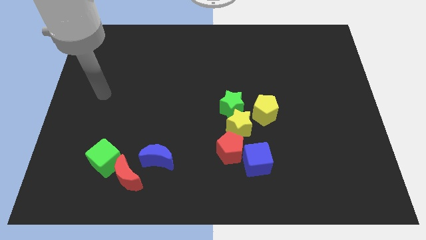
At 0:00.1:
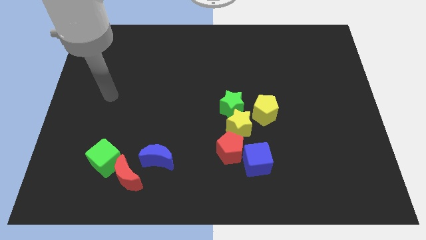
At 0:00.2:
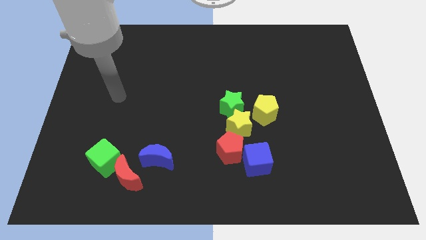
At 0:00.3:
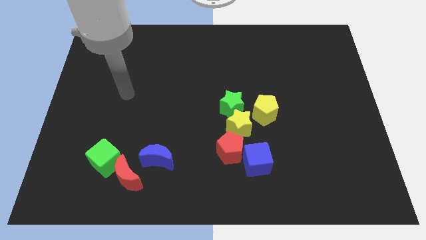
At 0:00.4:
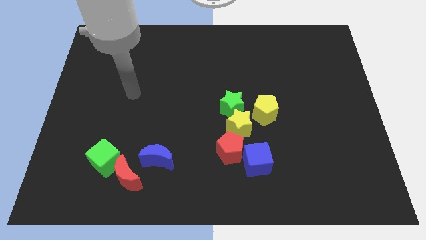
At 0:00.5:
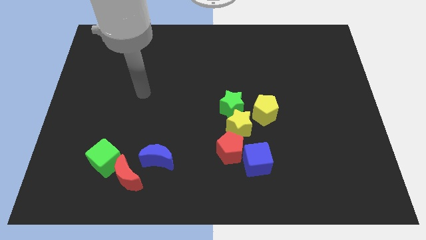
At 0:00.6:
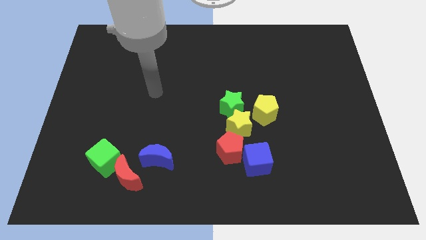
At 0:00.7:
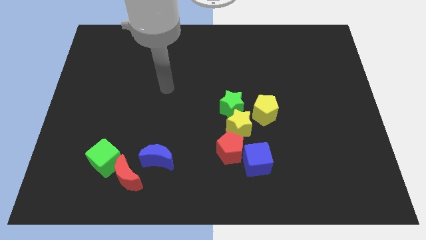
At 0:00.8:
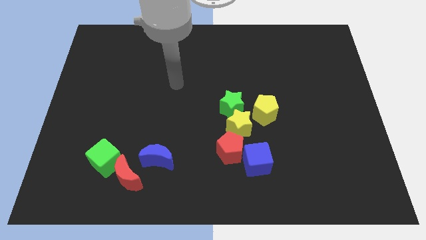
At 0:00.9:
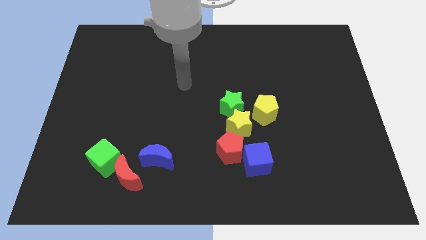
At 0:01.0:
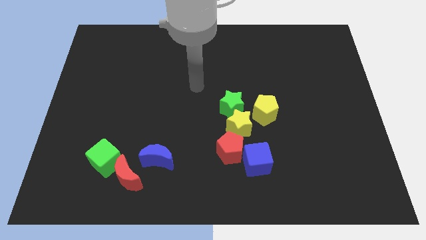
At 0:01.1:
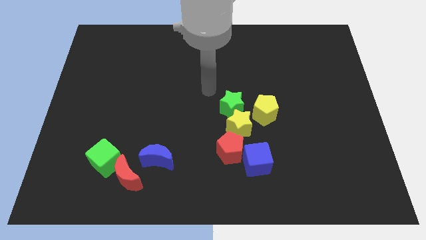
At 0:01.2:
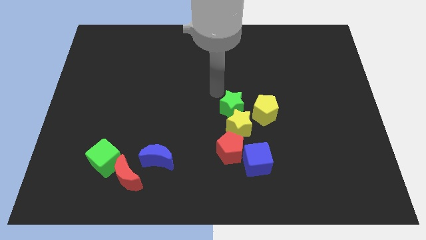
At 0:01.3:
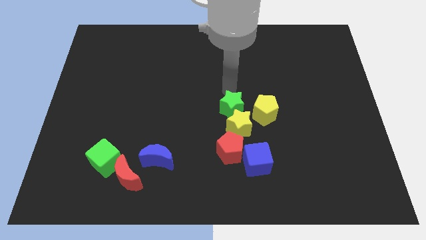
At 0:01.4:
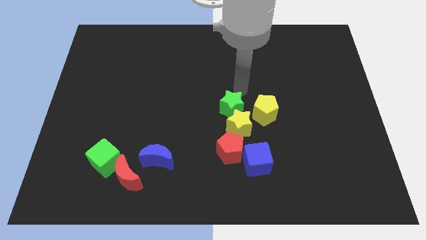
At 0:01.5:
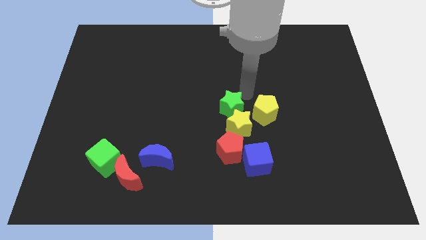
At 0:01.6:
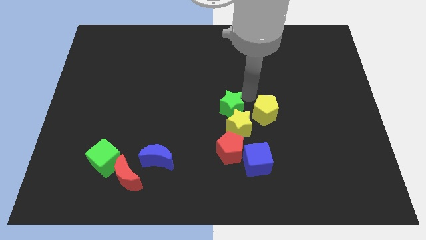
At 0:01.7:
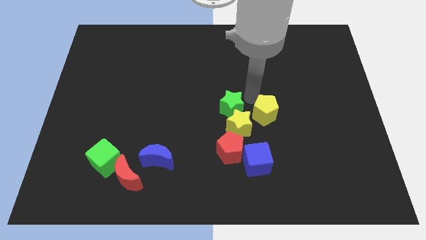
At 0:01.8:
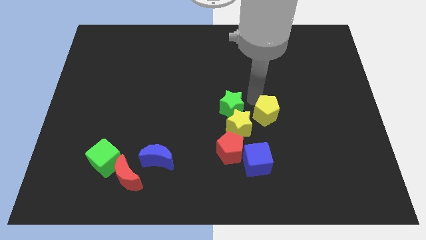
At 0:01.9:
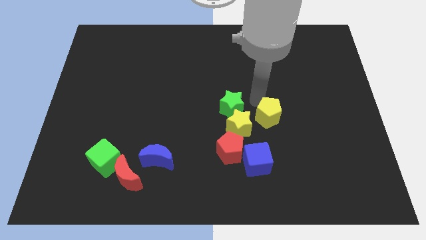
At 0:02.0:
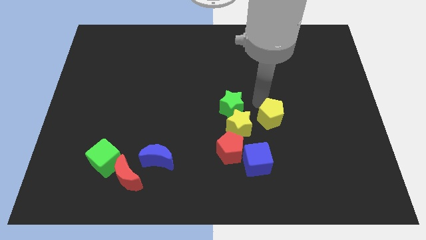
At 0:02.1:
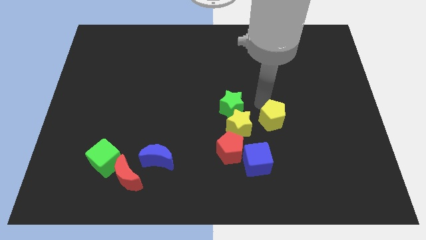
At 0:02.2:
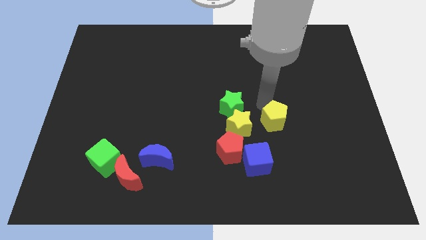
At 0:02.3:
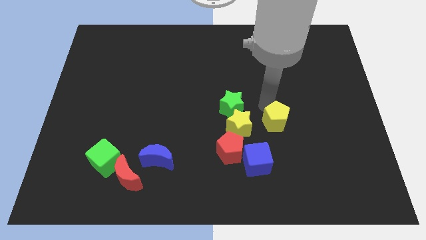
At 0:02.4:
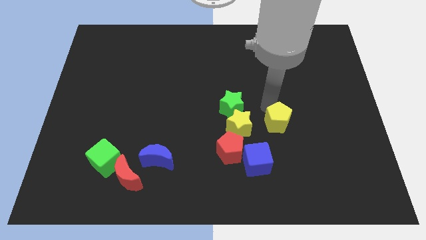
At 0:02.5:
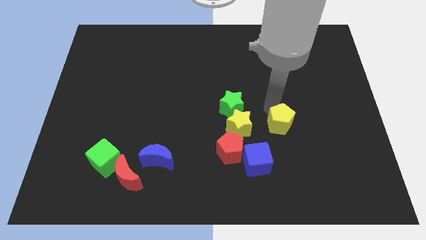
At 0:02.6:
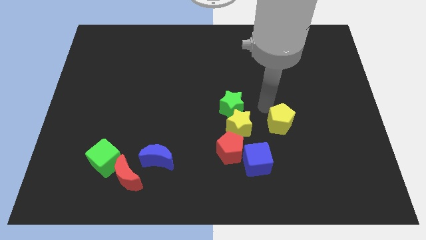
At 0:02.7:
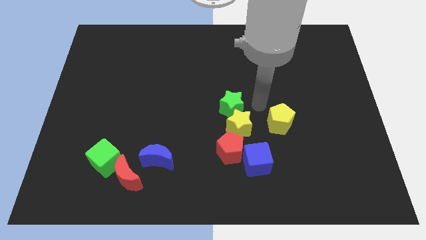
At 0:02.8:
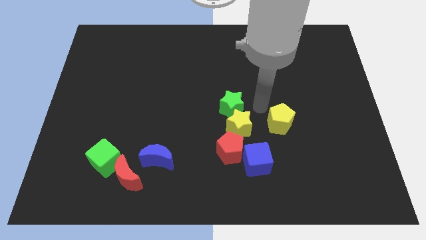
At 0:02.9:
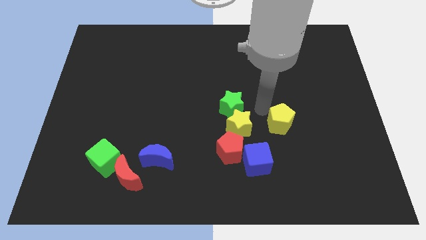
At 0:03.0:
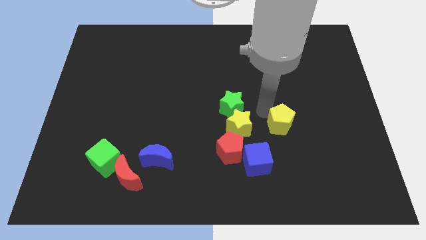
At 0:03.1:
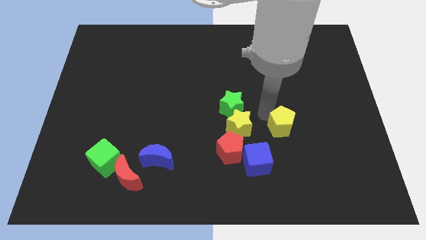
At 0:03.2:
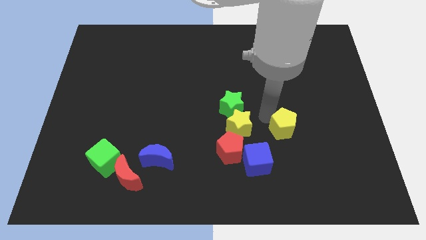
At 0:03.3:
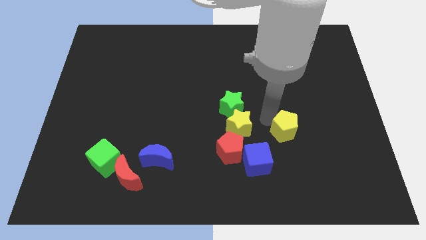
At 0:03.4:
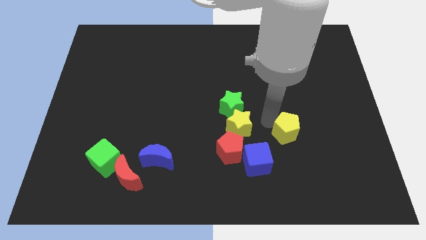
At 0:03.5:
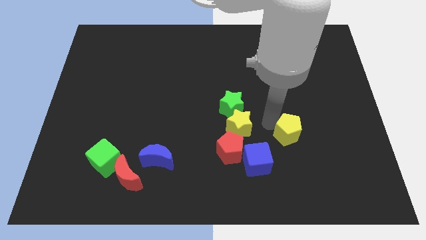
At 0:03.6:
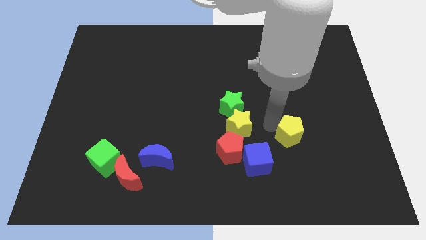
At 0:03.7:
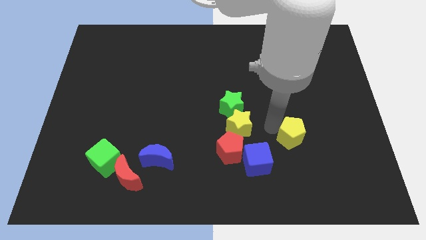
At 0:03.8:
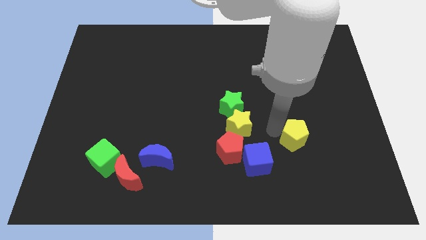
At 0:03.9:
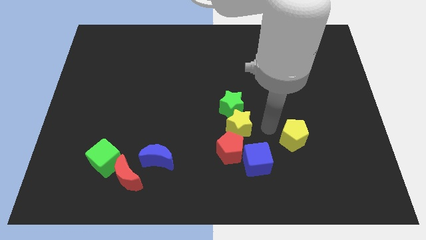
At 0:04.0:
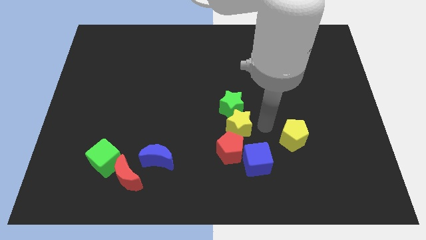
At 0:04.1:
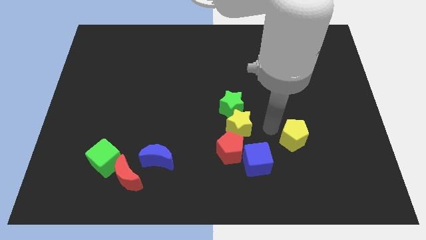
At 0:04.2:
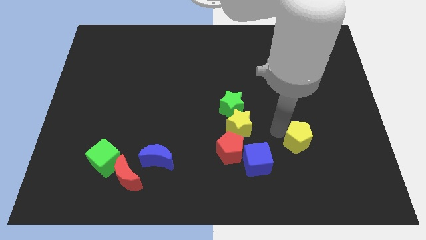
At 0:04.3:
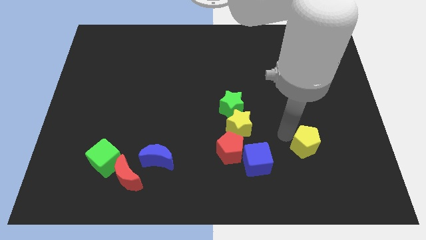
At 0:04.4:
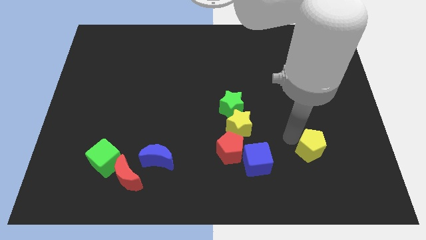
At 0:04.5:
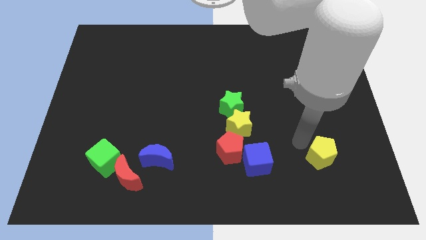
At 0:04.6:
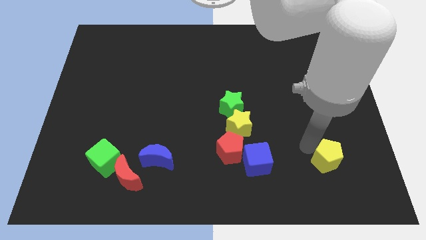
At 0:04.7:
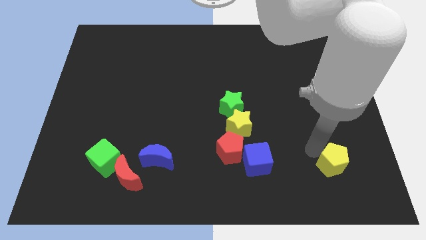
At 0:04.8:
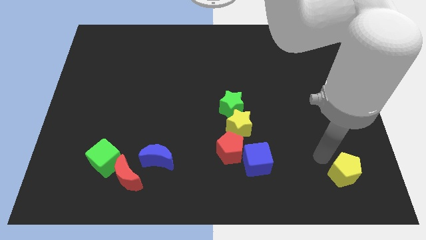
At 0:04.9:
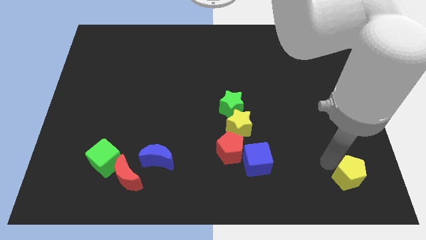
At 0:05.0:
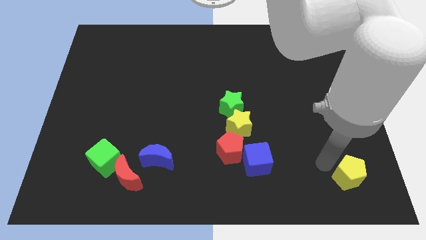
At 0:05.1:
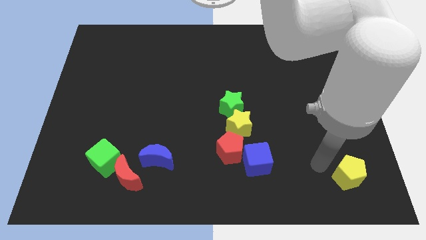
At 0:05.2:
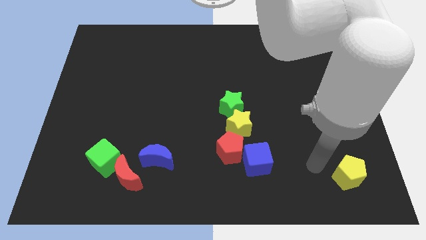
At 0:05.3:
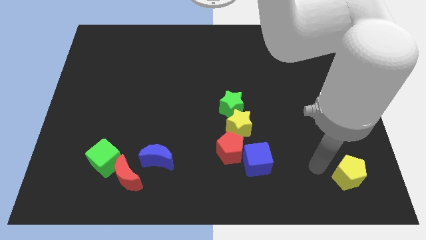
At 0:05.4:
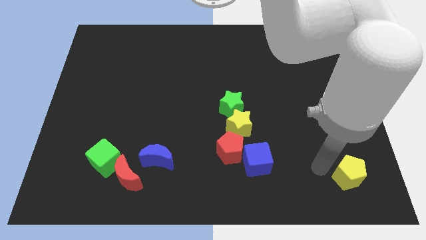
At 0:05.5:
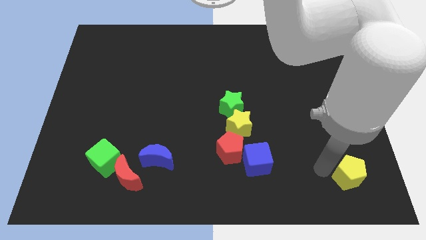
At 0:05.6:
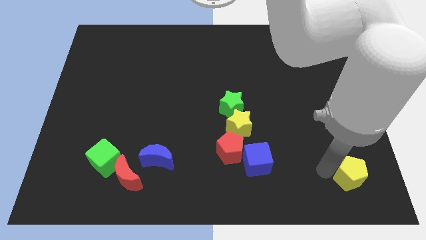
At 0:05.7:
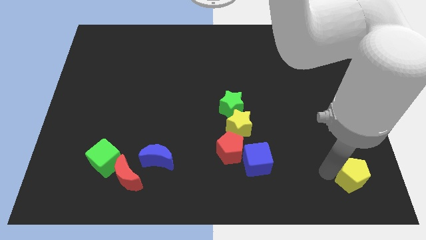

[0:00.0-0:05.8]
slide the yellow pentagon to the bottom right corner

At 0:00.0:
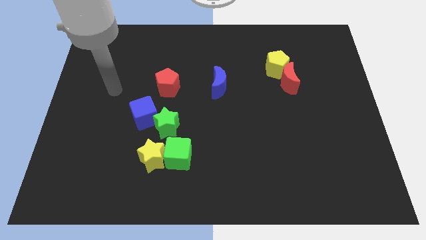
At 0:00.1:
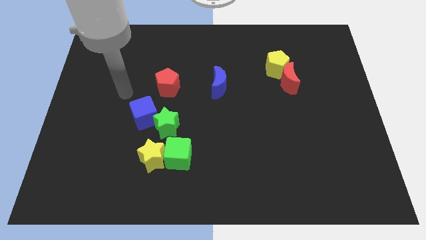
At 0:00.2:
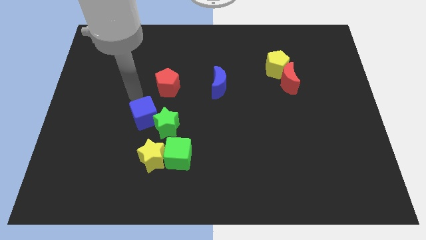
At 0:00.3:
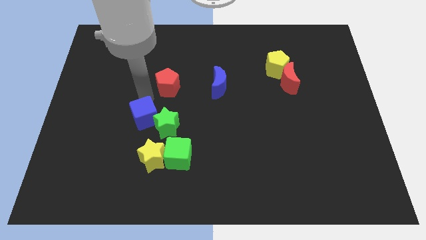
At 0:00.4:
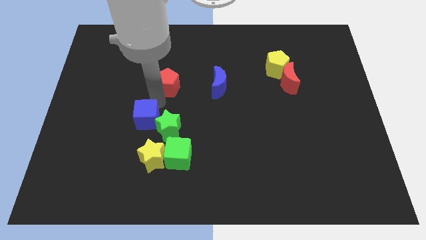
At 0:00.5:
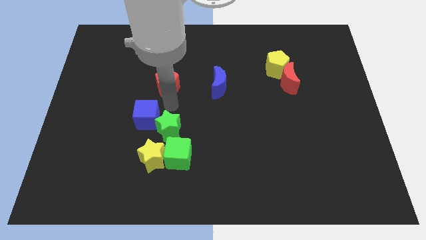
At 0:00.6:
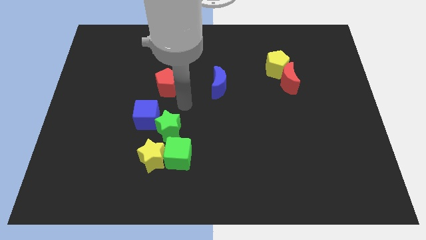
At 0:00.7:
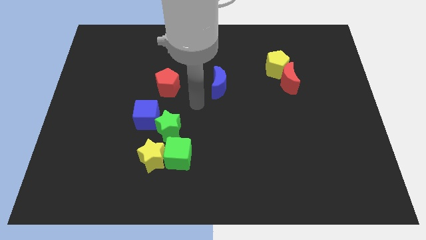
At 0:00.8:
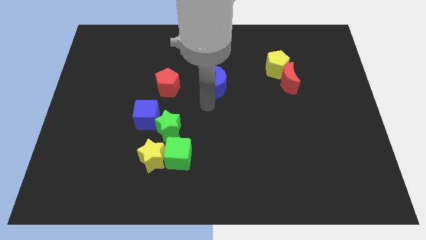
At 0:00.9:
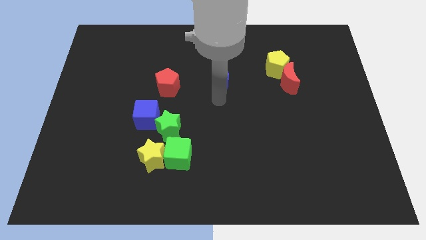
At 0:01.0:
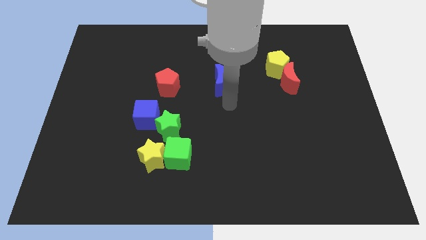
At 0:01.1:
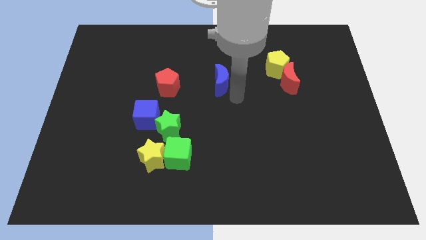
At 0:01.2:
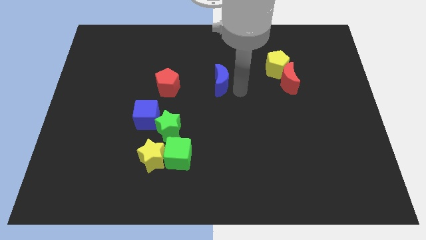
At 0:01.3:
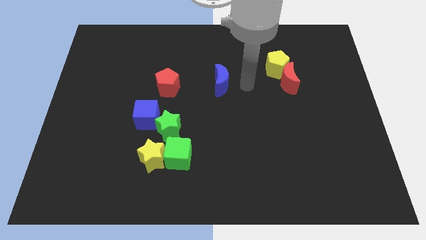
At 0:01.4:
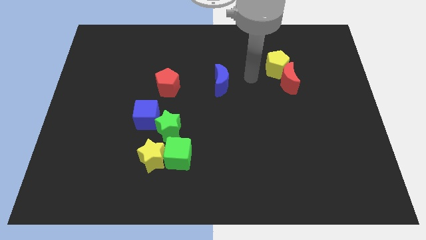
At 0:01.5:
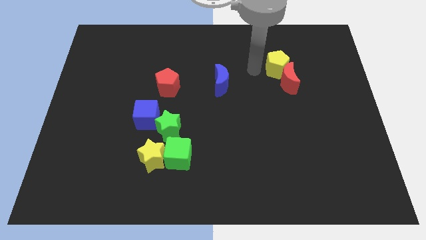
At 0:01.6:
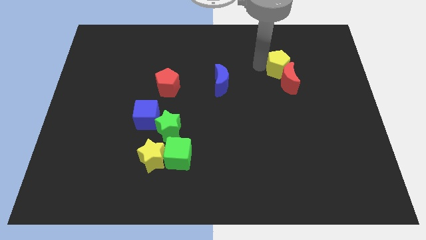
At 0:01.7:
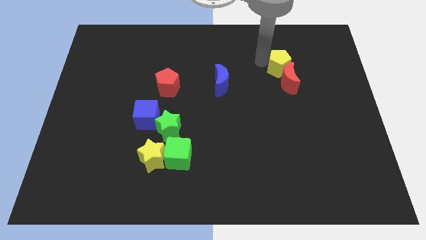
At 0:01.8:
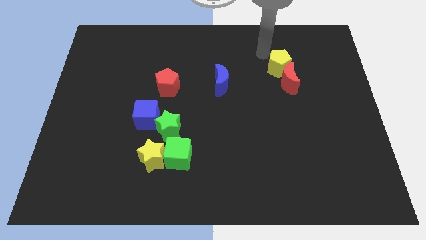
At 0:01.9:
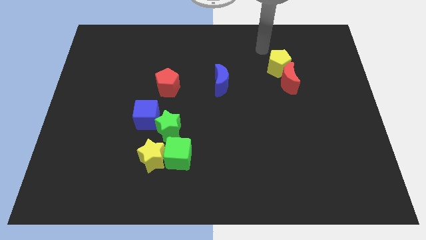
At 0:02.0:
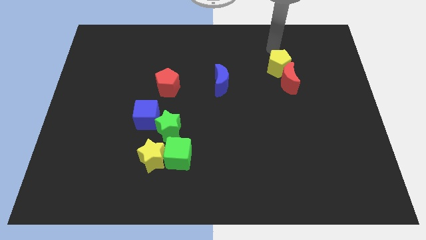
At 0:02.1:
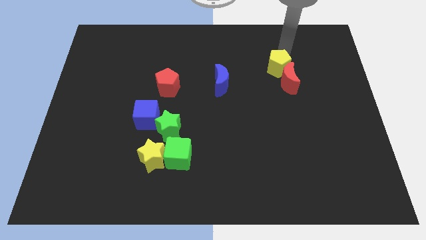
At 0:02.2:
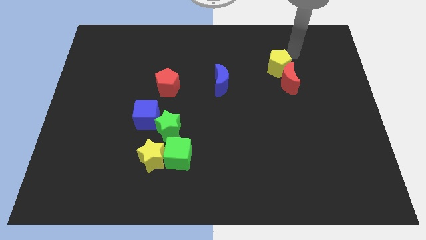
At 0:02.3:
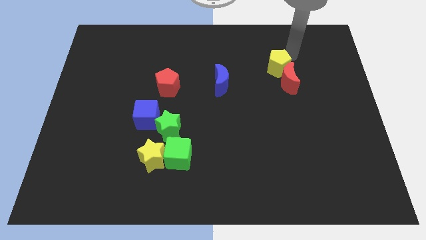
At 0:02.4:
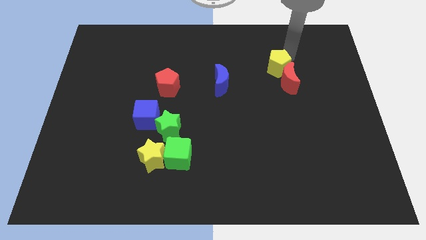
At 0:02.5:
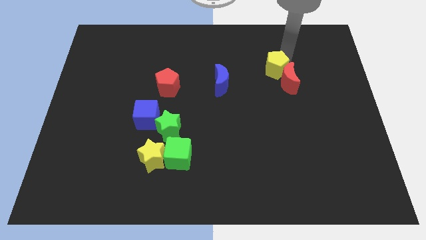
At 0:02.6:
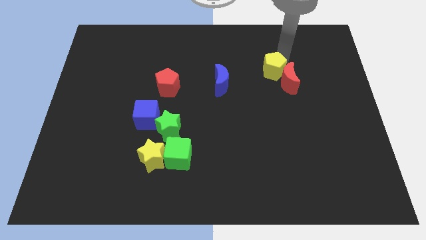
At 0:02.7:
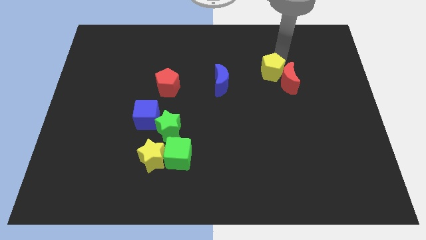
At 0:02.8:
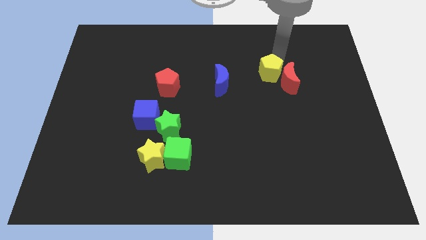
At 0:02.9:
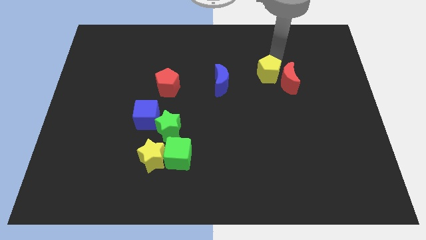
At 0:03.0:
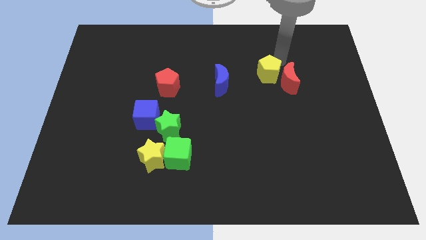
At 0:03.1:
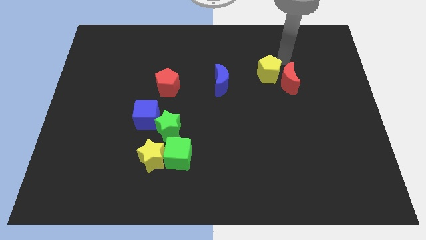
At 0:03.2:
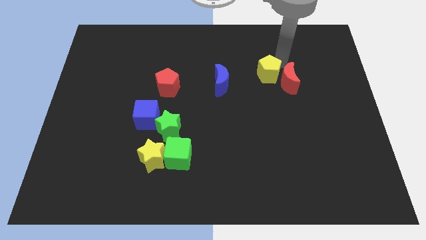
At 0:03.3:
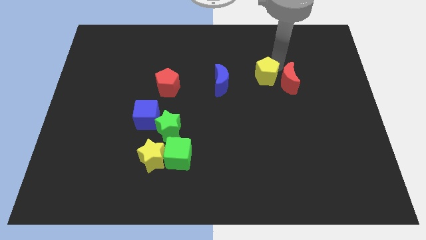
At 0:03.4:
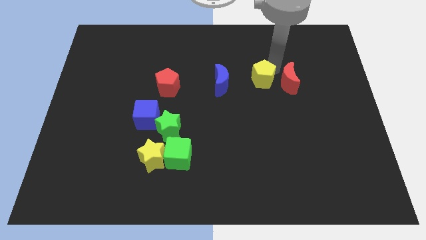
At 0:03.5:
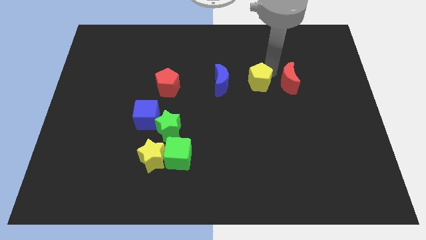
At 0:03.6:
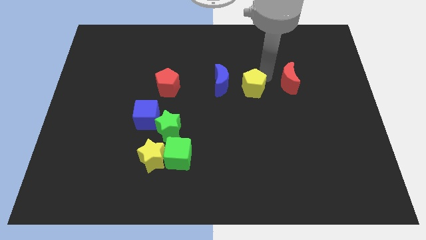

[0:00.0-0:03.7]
put the yellow pentagon to the center of the board
